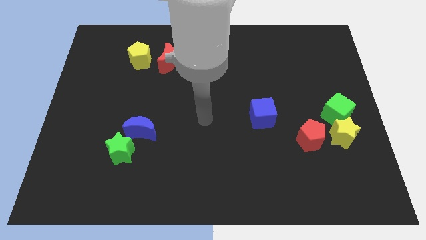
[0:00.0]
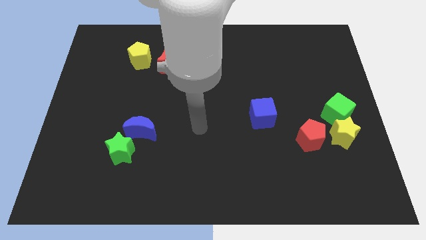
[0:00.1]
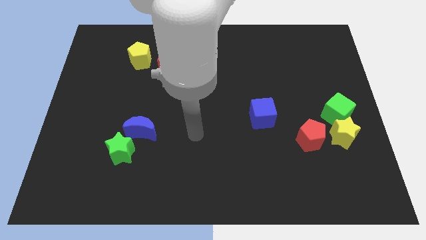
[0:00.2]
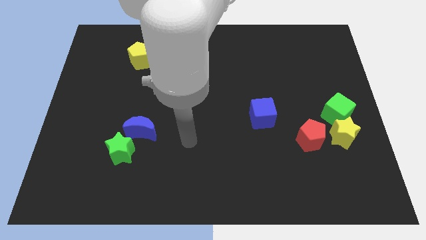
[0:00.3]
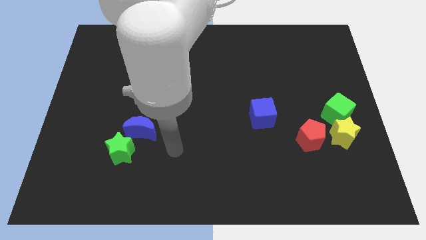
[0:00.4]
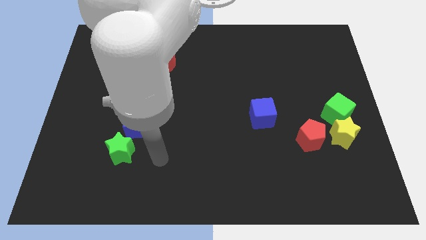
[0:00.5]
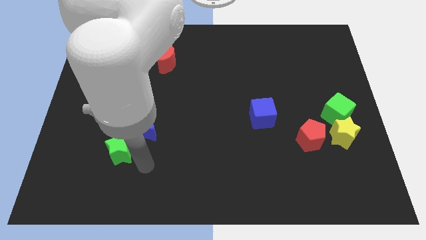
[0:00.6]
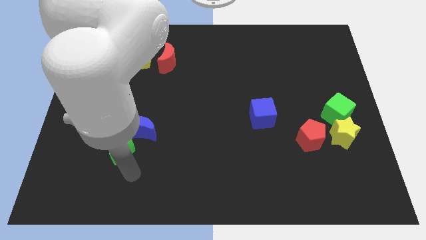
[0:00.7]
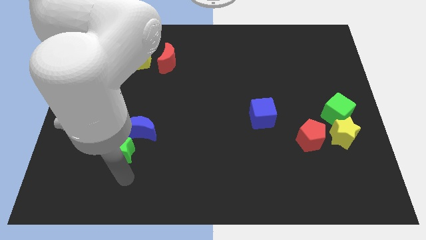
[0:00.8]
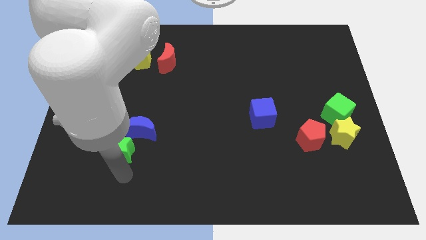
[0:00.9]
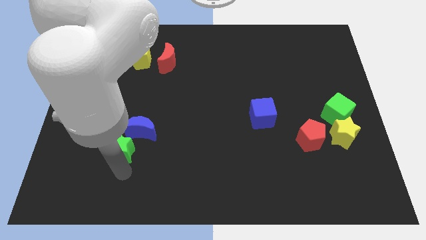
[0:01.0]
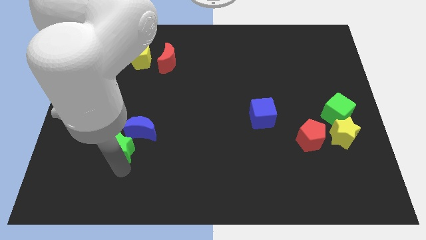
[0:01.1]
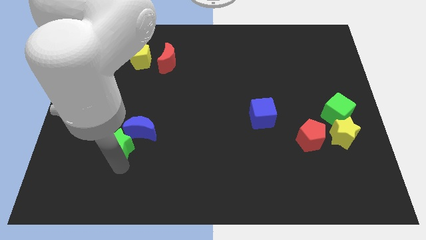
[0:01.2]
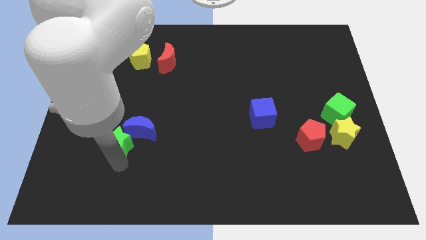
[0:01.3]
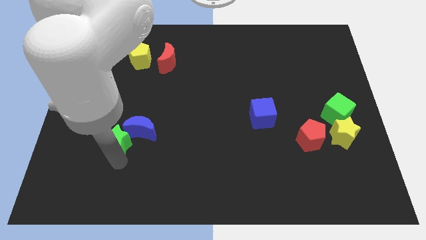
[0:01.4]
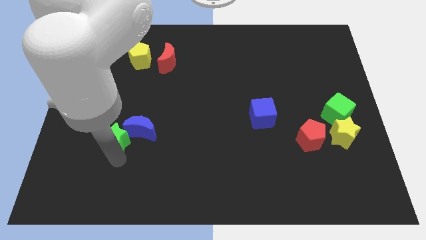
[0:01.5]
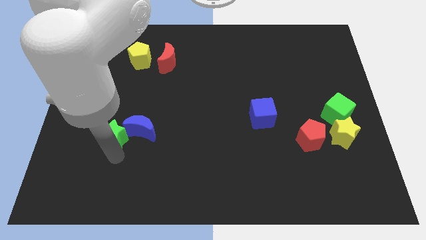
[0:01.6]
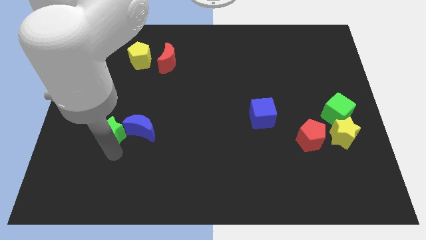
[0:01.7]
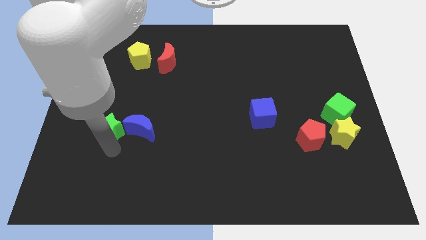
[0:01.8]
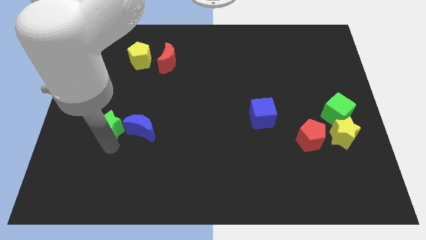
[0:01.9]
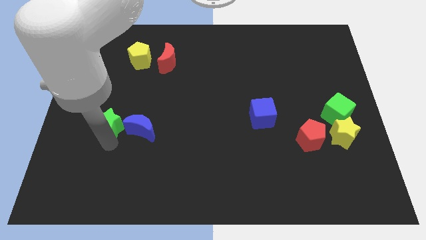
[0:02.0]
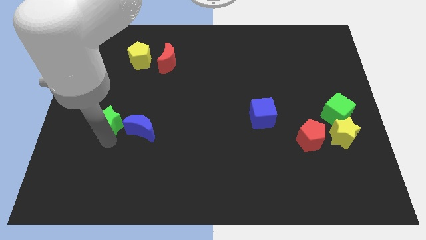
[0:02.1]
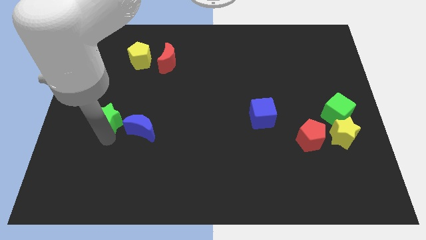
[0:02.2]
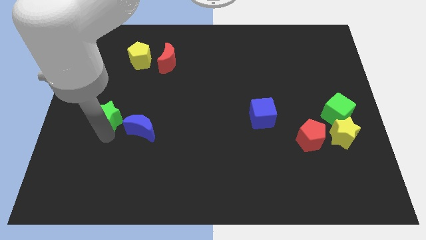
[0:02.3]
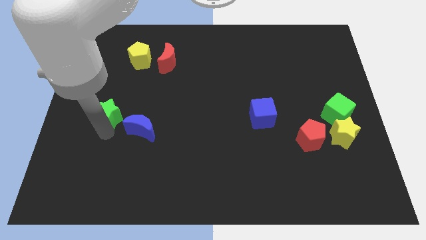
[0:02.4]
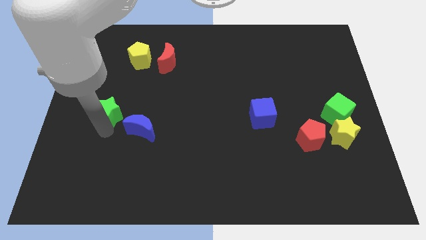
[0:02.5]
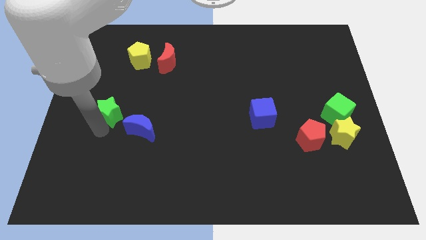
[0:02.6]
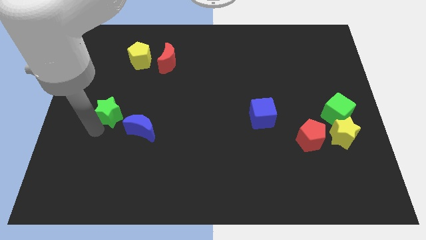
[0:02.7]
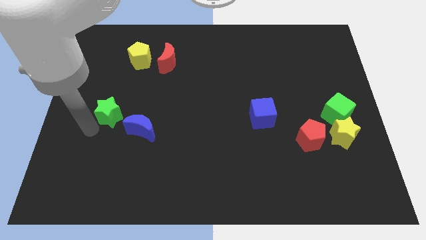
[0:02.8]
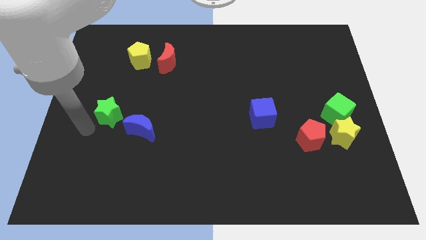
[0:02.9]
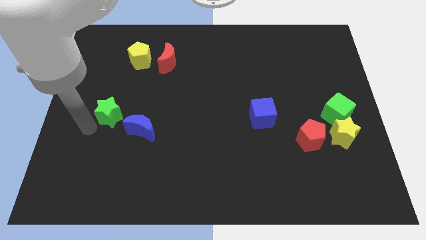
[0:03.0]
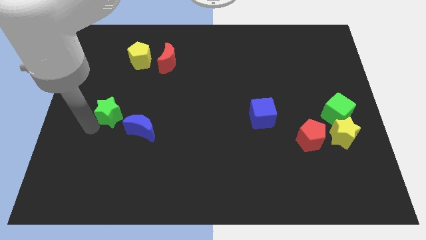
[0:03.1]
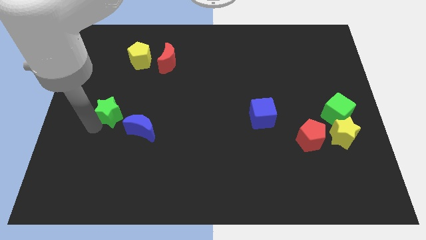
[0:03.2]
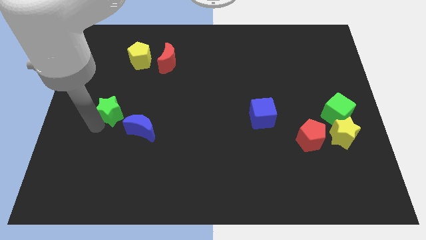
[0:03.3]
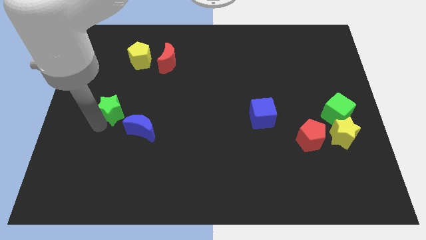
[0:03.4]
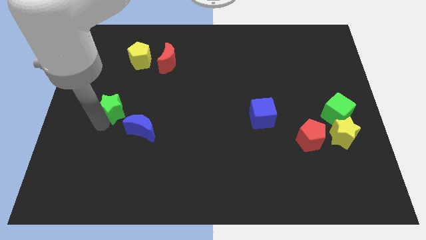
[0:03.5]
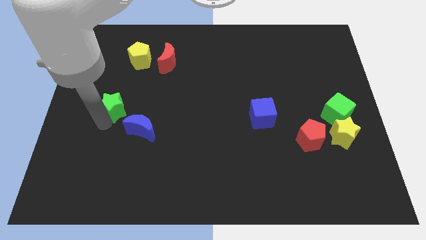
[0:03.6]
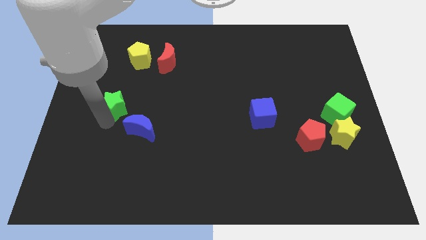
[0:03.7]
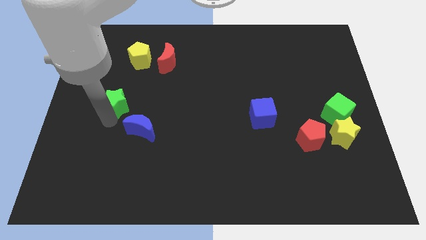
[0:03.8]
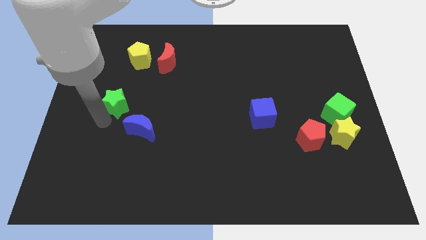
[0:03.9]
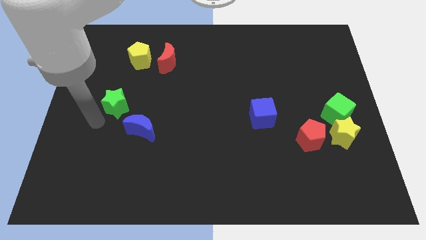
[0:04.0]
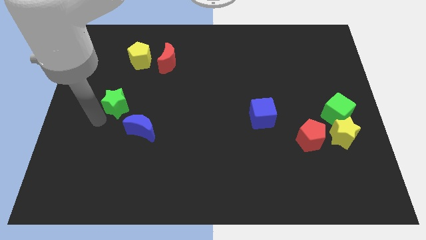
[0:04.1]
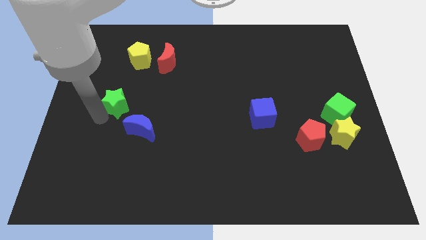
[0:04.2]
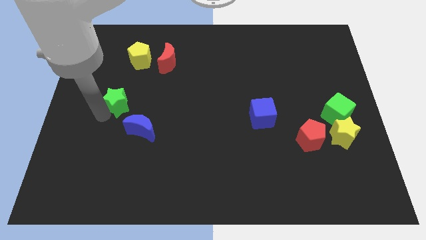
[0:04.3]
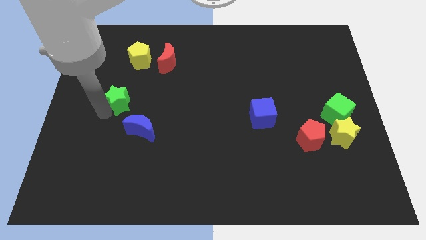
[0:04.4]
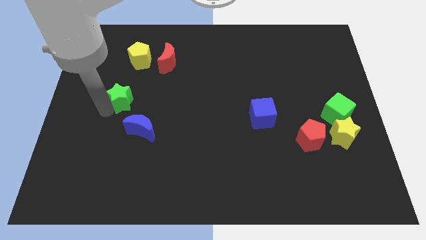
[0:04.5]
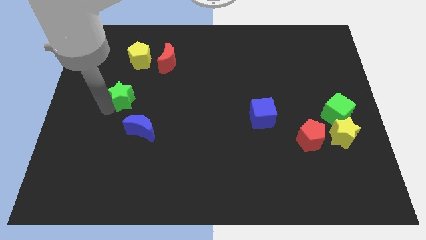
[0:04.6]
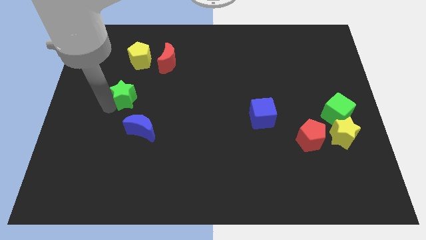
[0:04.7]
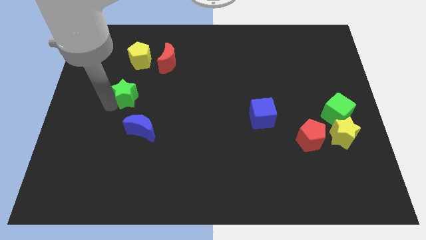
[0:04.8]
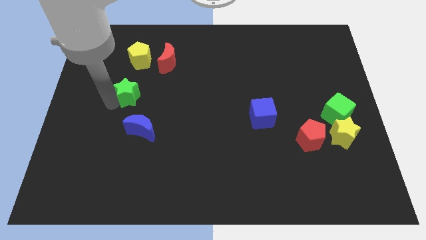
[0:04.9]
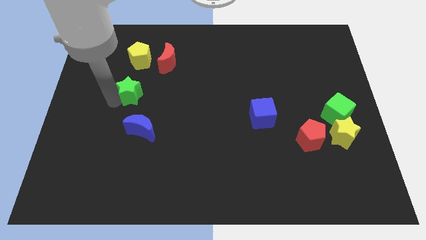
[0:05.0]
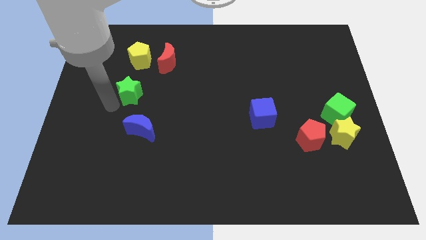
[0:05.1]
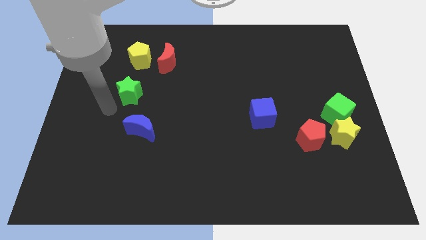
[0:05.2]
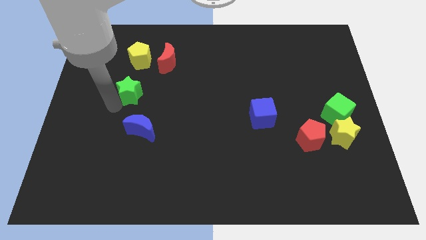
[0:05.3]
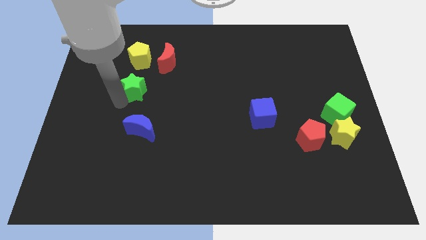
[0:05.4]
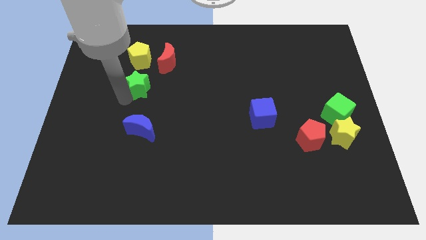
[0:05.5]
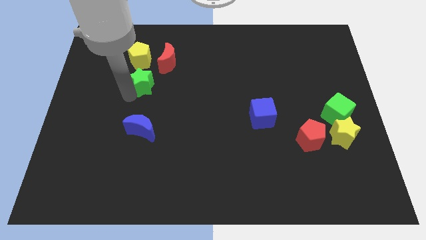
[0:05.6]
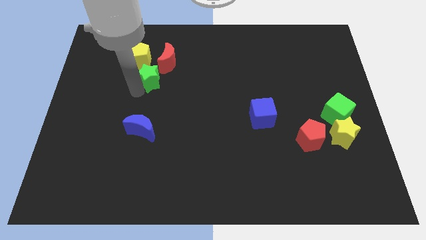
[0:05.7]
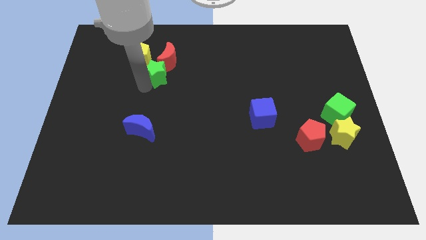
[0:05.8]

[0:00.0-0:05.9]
put the green star to the red moon
